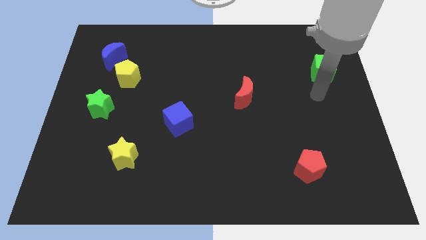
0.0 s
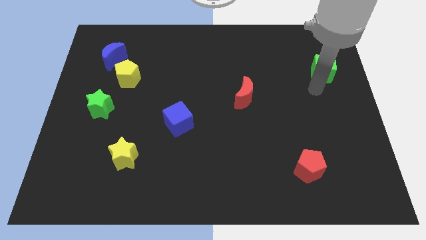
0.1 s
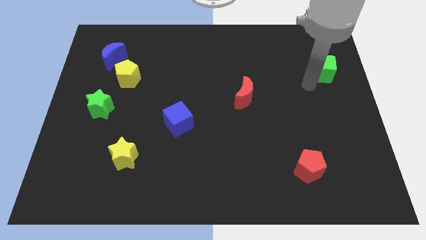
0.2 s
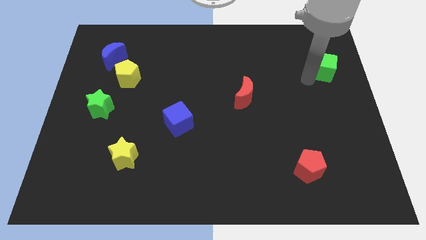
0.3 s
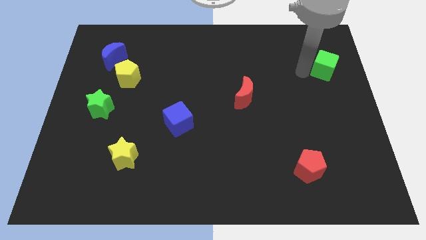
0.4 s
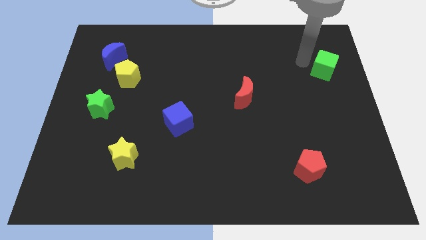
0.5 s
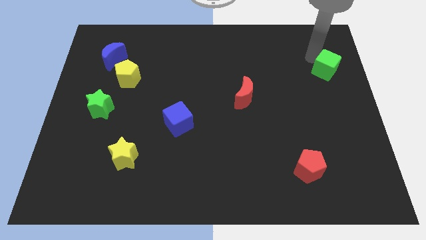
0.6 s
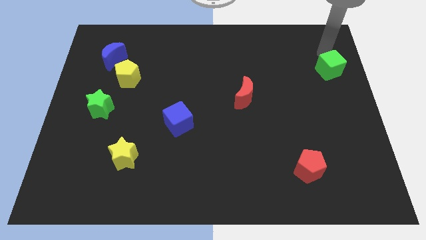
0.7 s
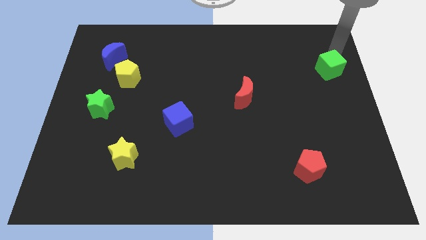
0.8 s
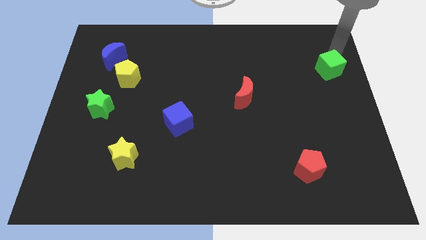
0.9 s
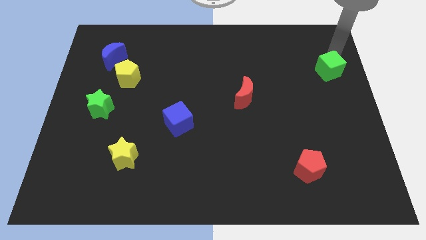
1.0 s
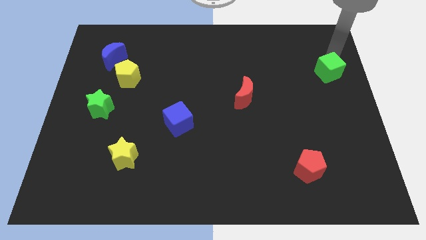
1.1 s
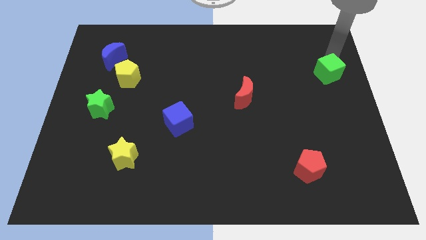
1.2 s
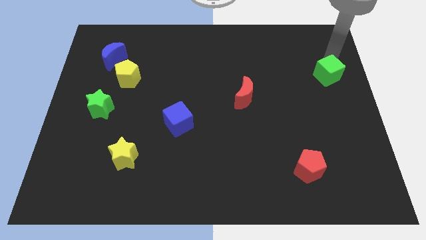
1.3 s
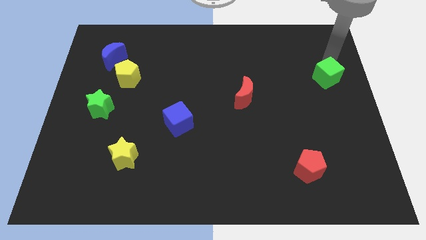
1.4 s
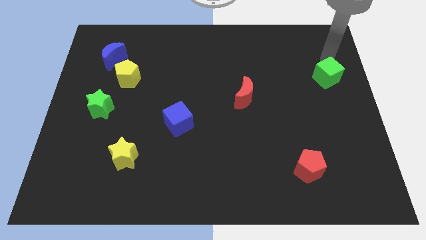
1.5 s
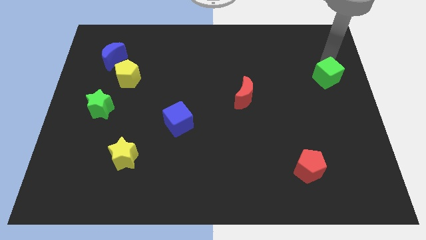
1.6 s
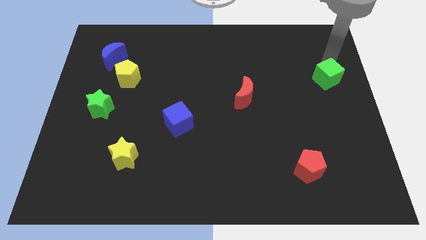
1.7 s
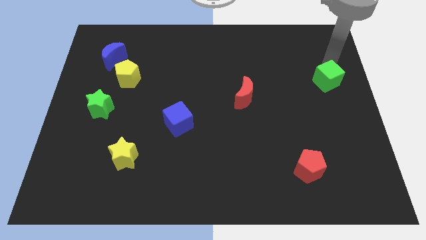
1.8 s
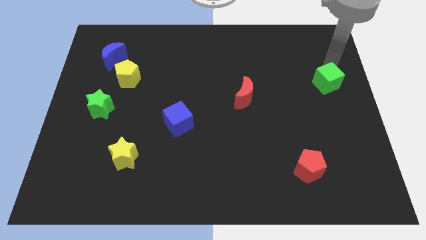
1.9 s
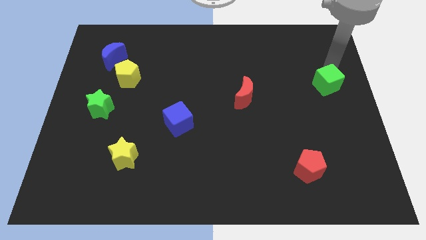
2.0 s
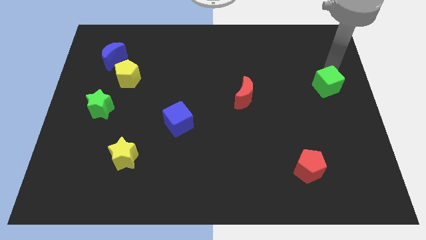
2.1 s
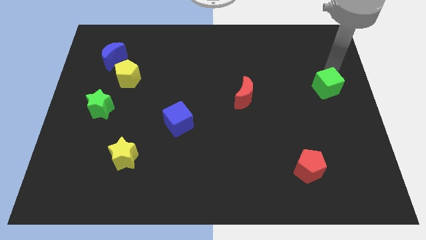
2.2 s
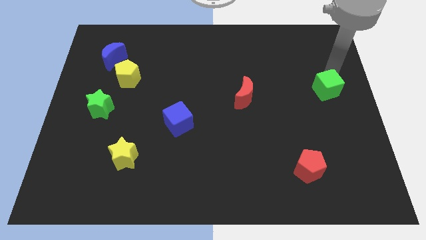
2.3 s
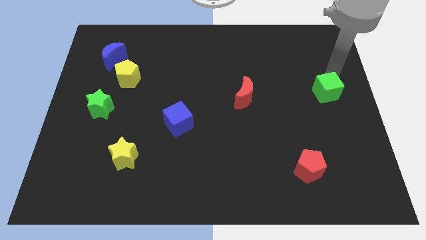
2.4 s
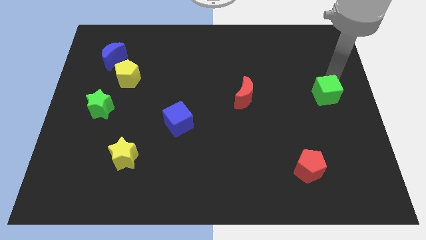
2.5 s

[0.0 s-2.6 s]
slightly push the green cube downwards

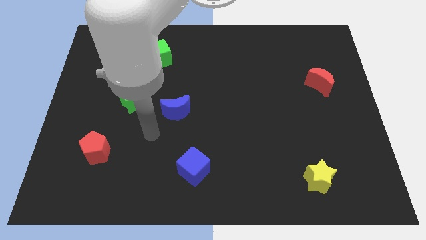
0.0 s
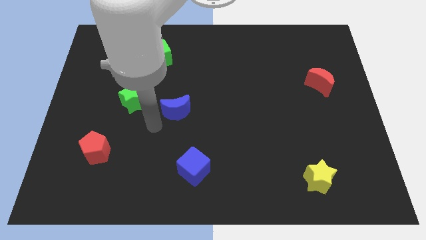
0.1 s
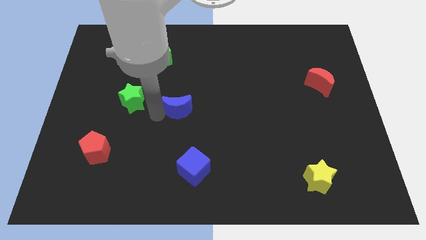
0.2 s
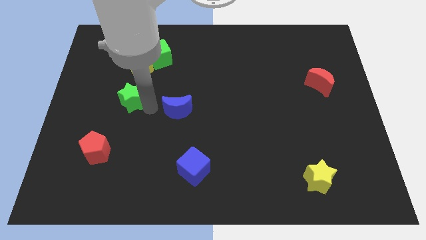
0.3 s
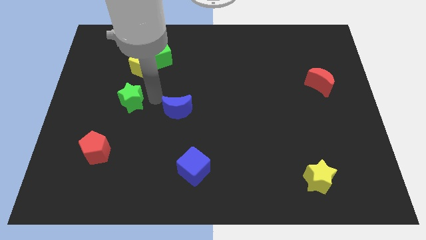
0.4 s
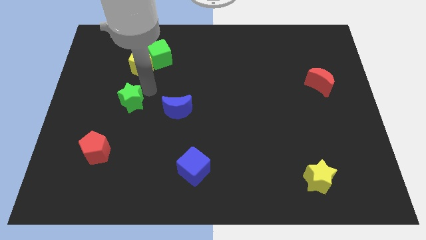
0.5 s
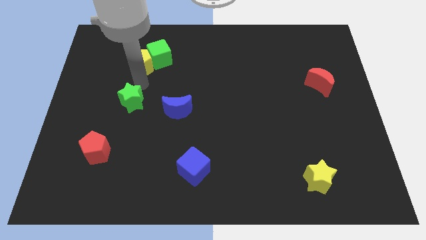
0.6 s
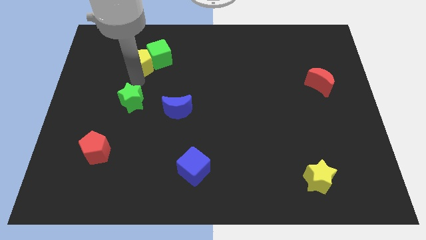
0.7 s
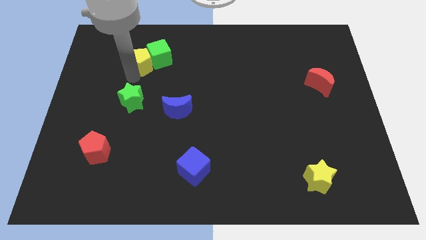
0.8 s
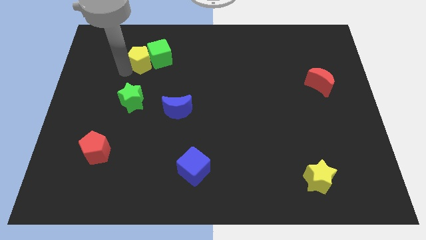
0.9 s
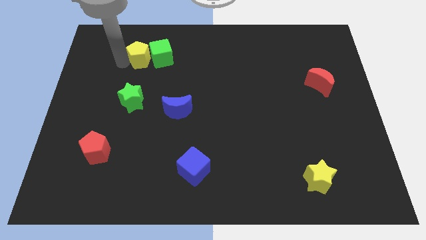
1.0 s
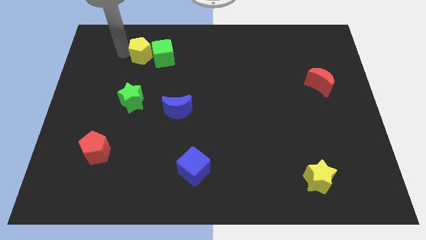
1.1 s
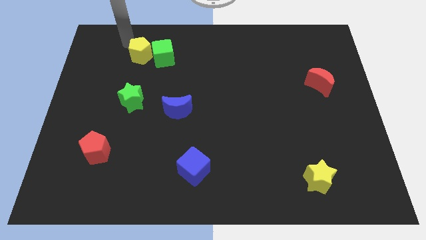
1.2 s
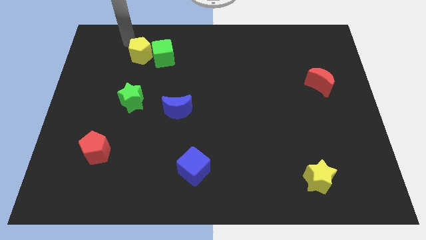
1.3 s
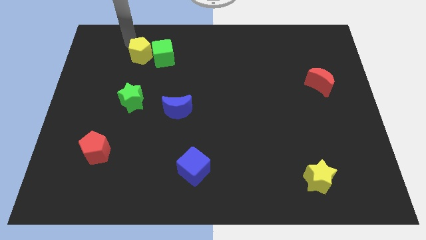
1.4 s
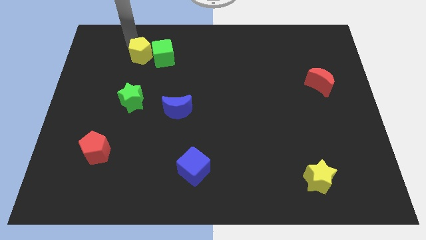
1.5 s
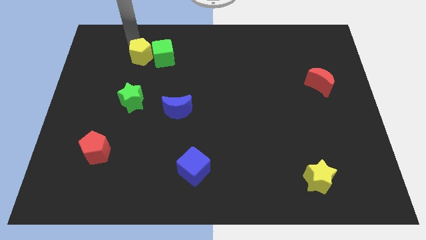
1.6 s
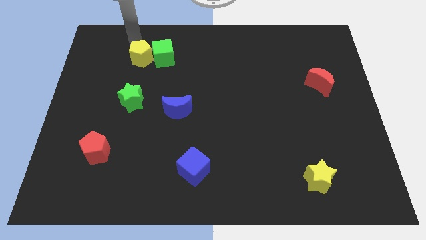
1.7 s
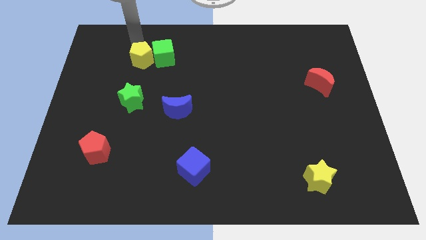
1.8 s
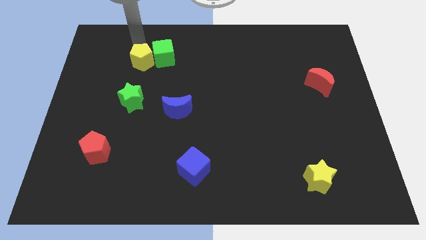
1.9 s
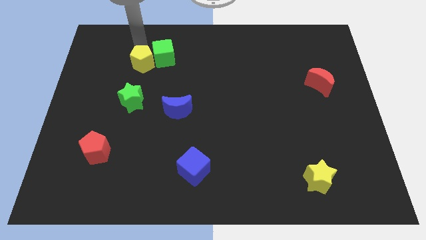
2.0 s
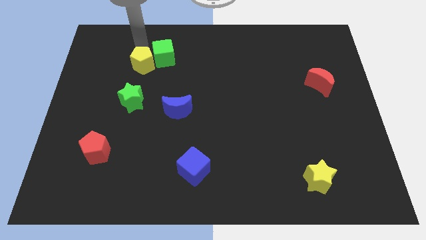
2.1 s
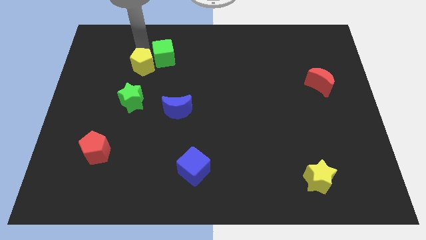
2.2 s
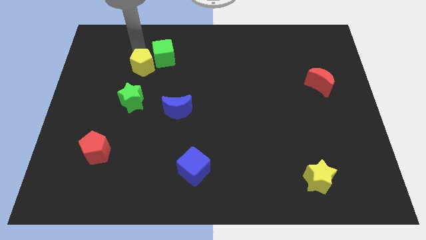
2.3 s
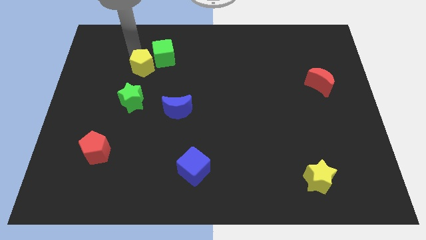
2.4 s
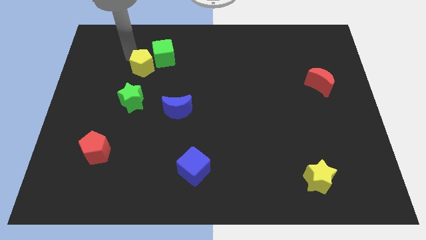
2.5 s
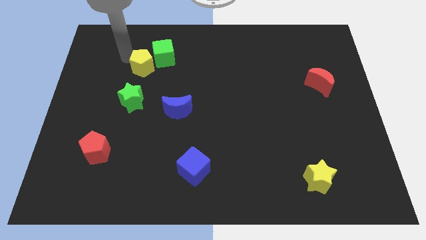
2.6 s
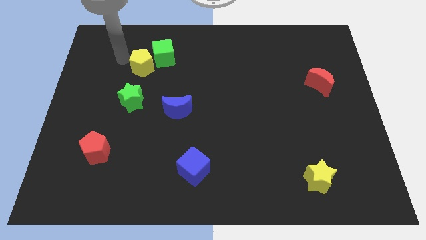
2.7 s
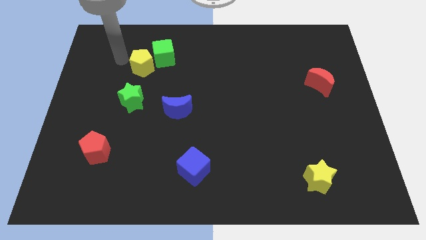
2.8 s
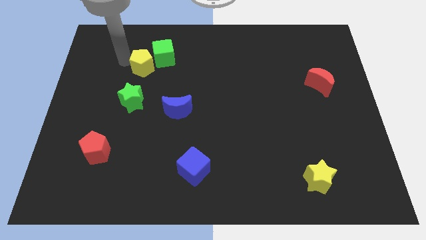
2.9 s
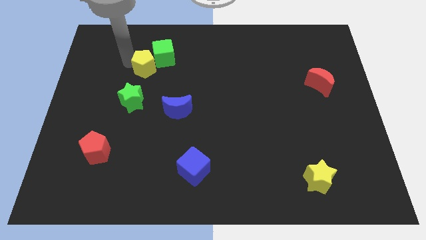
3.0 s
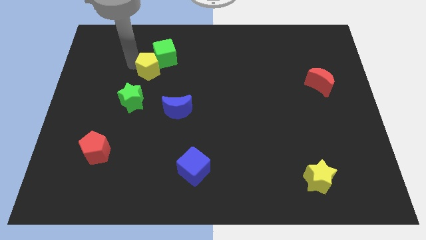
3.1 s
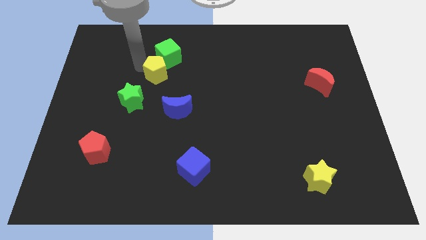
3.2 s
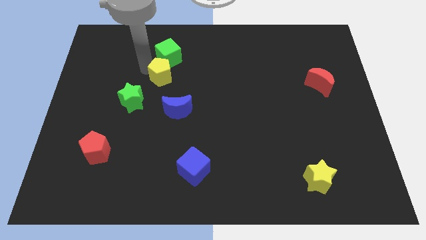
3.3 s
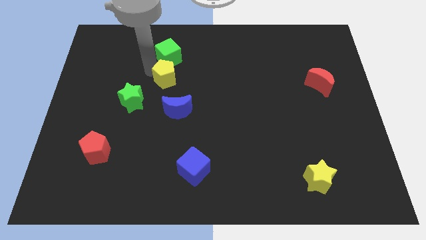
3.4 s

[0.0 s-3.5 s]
slide the yellow pentagon downwards and to the right somewhat

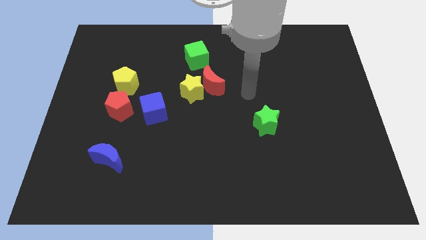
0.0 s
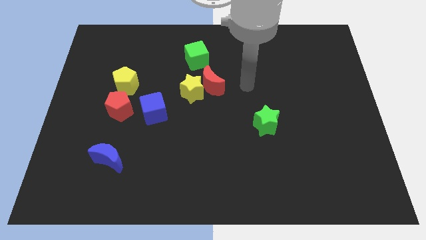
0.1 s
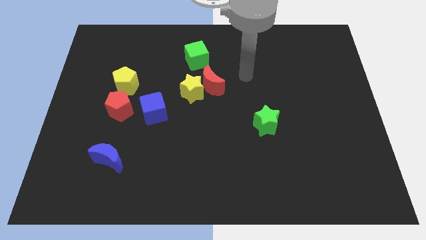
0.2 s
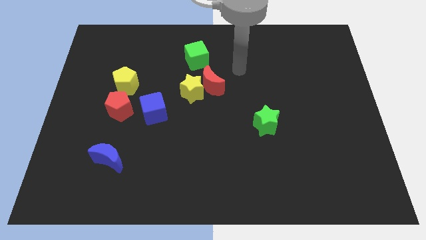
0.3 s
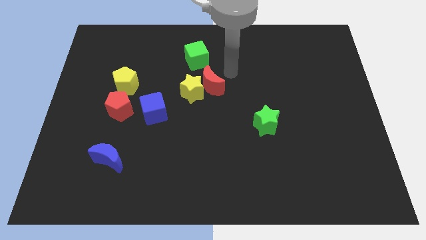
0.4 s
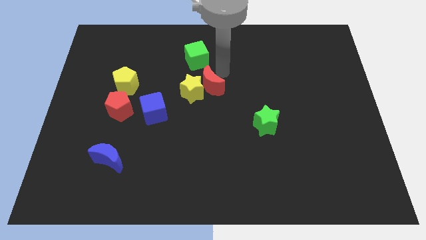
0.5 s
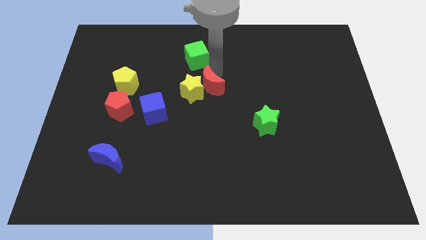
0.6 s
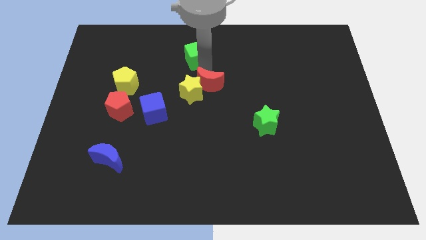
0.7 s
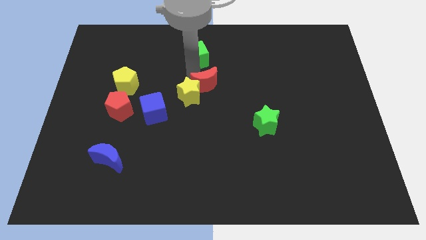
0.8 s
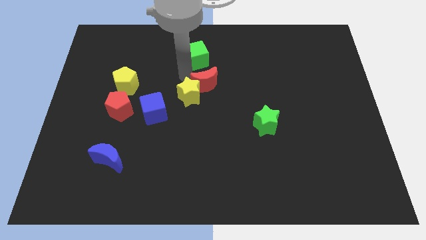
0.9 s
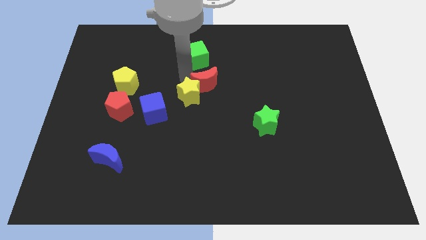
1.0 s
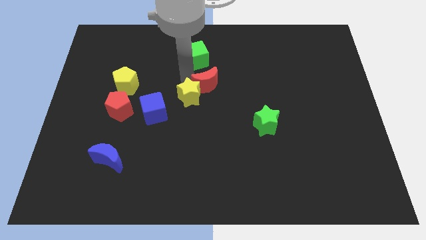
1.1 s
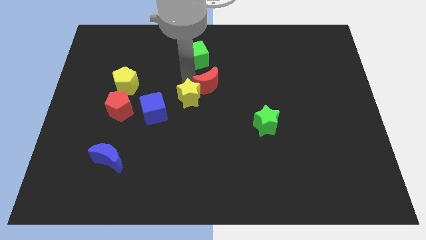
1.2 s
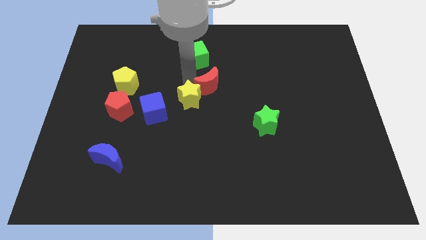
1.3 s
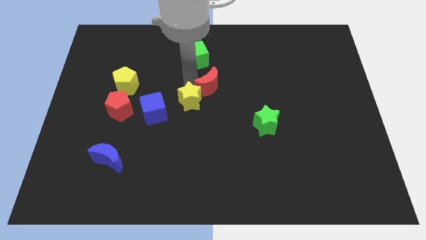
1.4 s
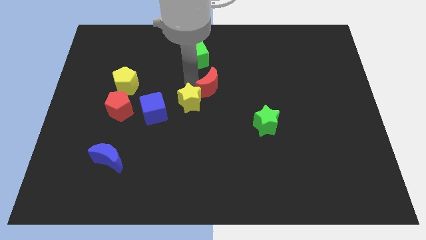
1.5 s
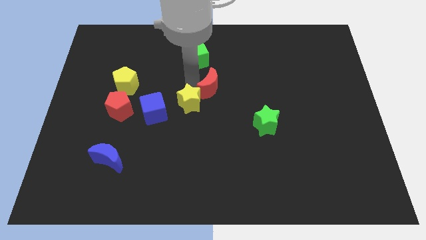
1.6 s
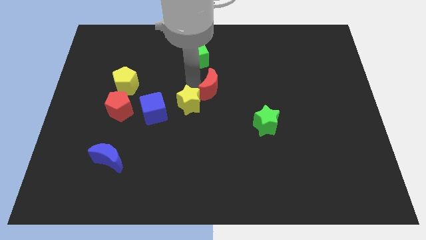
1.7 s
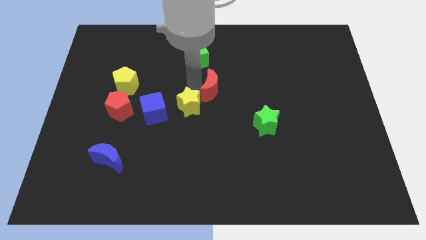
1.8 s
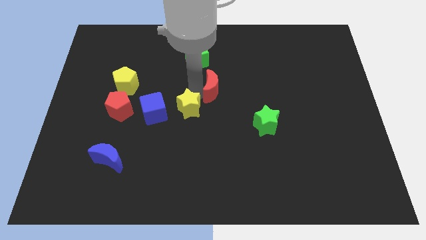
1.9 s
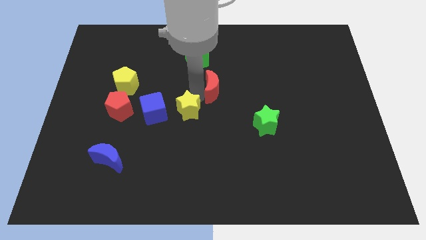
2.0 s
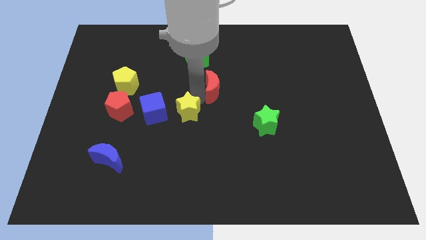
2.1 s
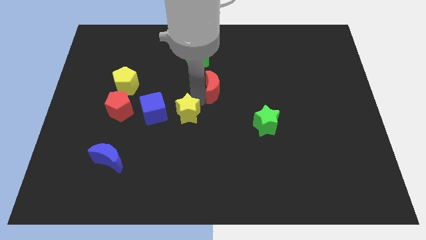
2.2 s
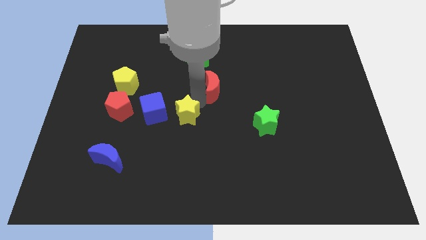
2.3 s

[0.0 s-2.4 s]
slightly slide the yellow star down
